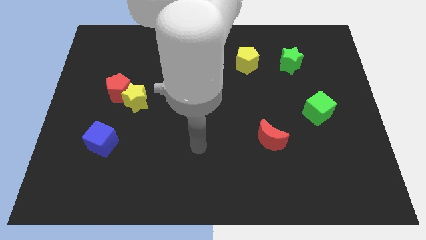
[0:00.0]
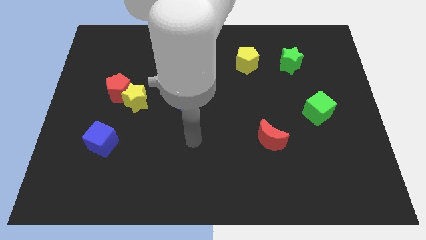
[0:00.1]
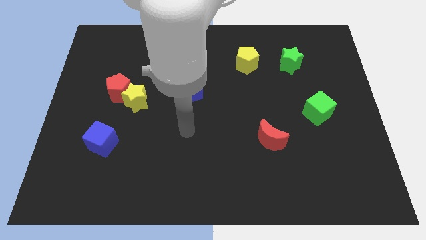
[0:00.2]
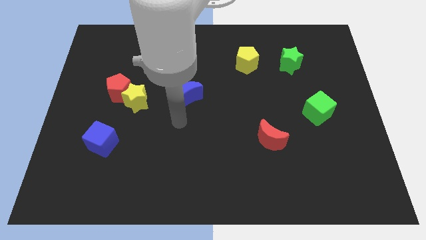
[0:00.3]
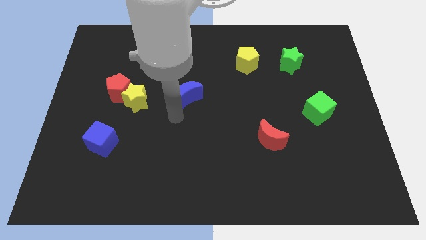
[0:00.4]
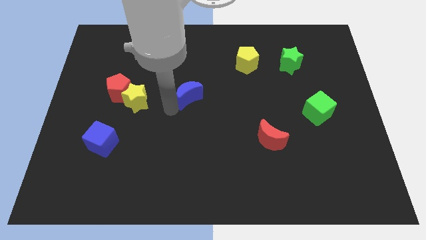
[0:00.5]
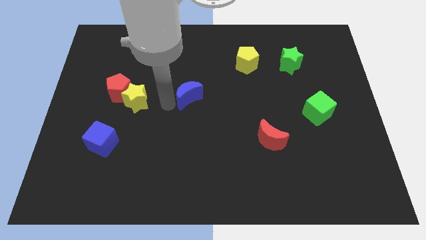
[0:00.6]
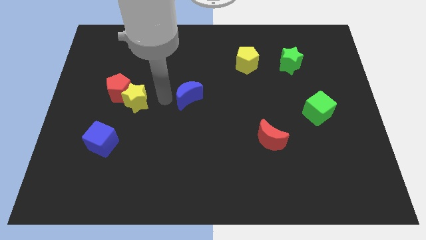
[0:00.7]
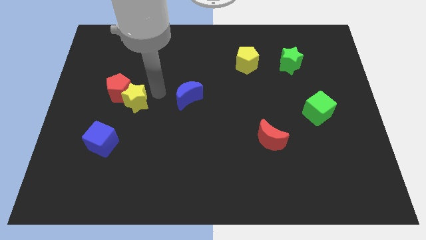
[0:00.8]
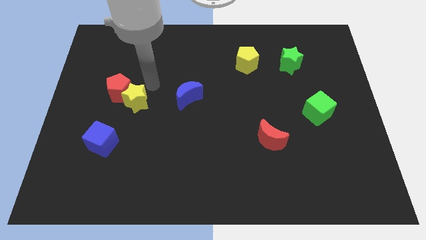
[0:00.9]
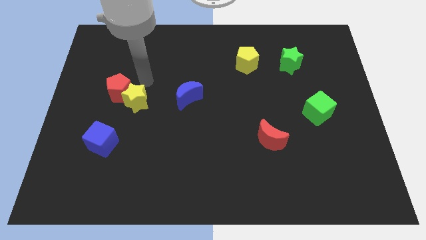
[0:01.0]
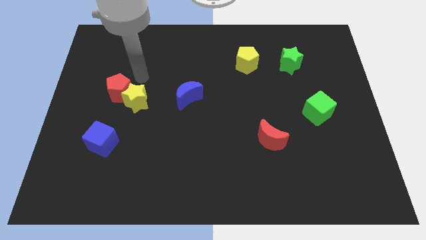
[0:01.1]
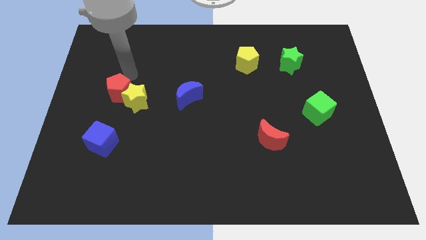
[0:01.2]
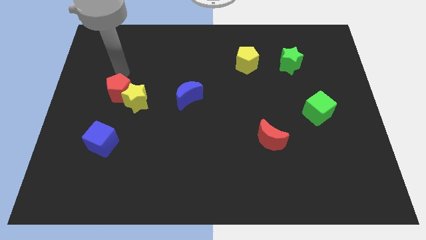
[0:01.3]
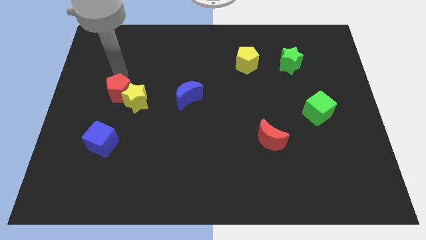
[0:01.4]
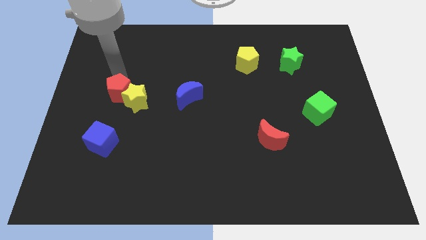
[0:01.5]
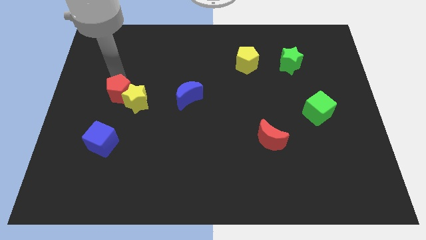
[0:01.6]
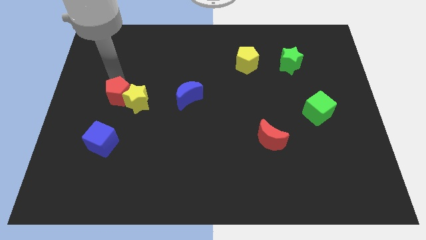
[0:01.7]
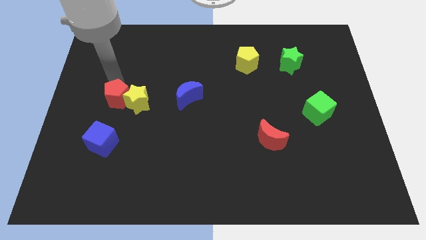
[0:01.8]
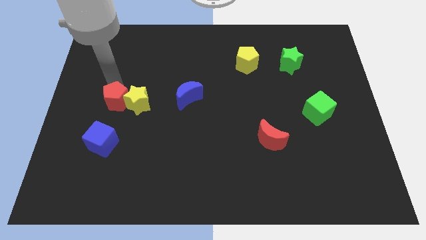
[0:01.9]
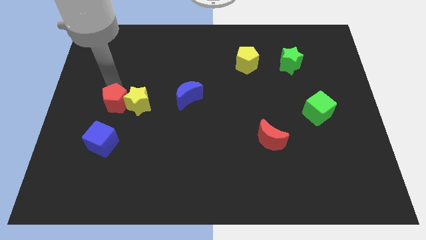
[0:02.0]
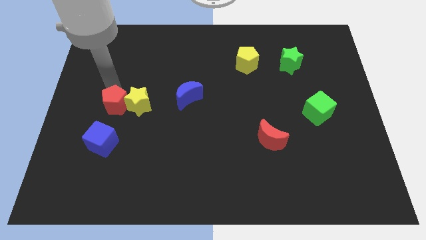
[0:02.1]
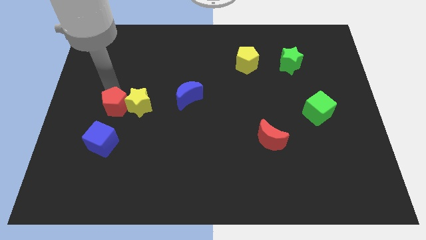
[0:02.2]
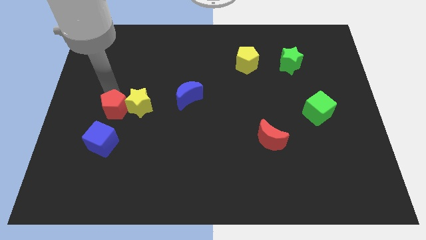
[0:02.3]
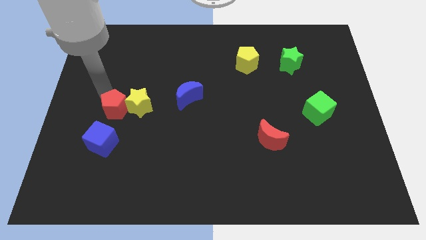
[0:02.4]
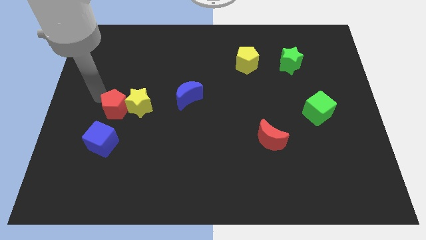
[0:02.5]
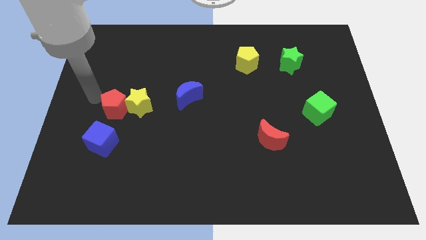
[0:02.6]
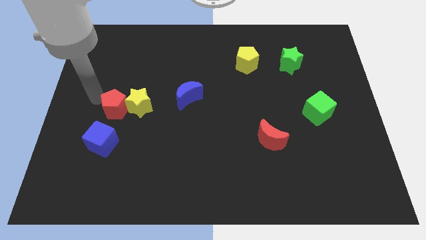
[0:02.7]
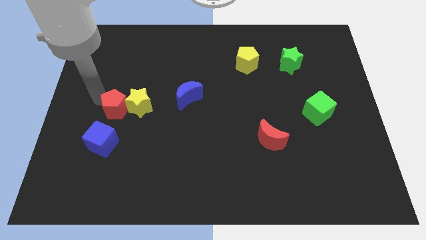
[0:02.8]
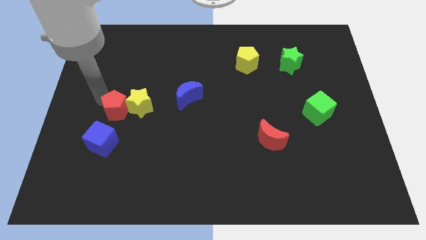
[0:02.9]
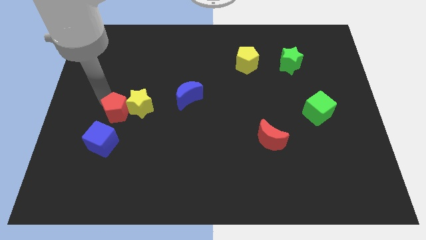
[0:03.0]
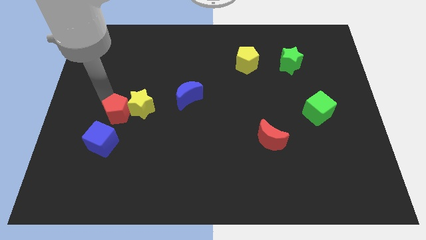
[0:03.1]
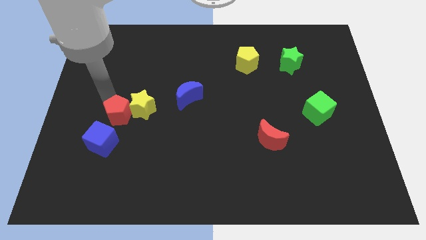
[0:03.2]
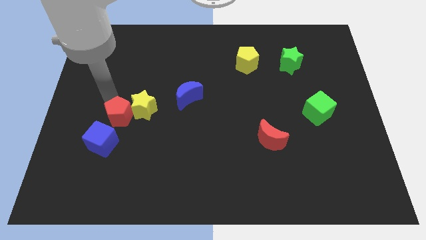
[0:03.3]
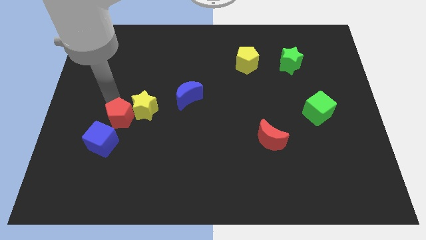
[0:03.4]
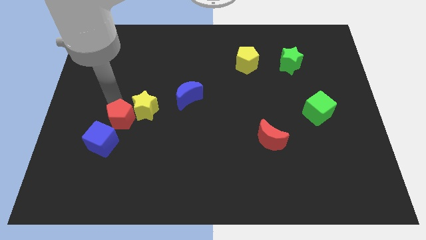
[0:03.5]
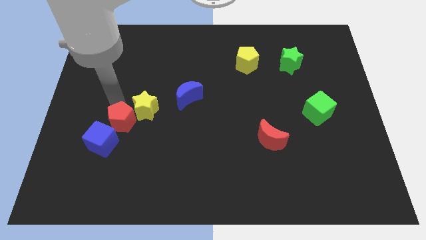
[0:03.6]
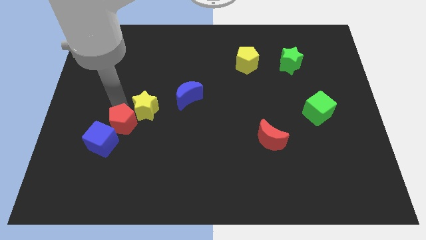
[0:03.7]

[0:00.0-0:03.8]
push the red pentagon a little bit diagonally downwards and to the right

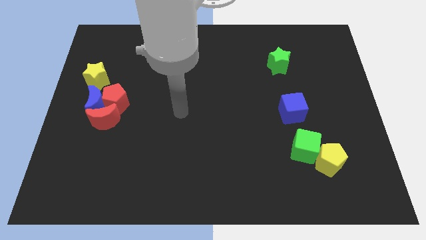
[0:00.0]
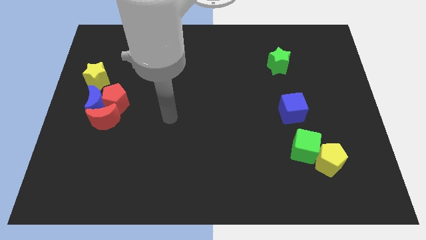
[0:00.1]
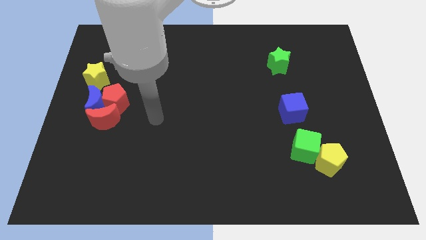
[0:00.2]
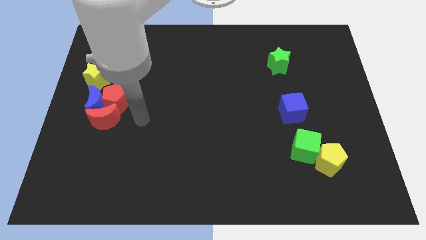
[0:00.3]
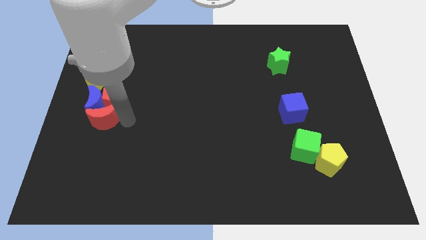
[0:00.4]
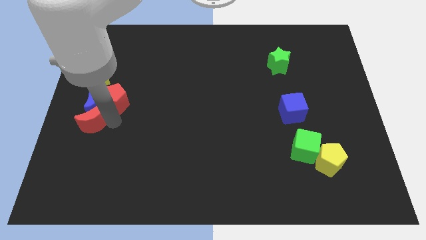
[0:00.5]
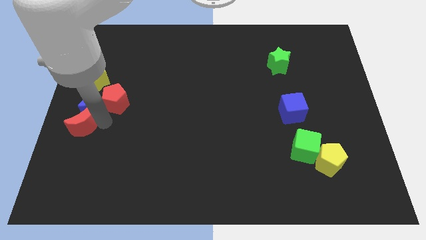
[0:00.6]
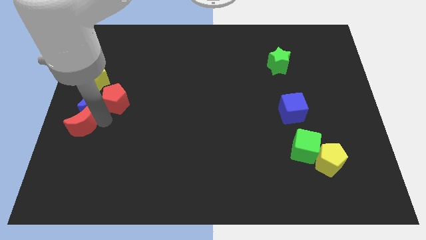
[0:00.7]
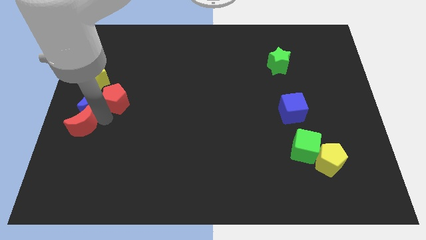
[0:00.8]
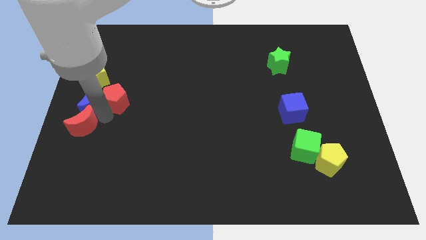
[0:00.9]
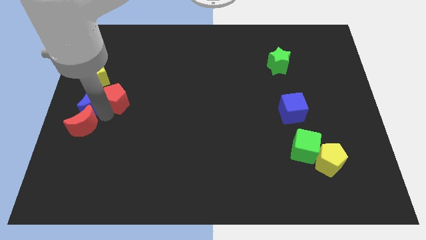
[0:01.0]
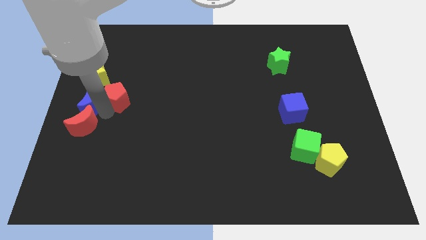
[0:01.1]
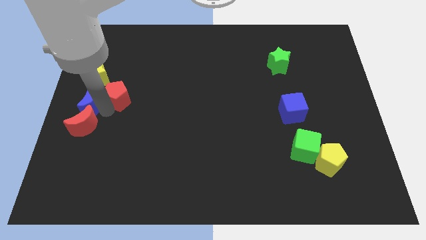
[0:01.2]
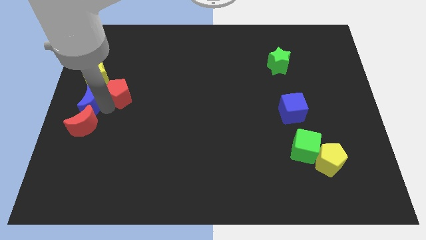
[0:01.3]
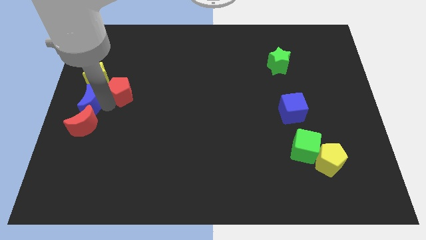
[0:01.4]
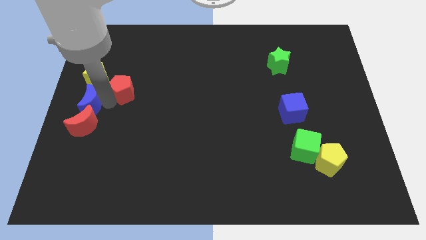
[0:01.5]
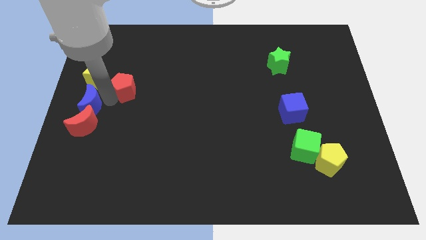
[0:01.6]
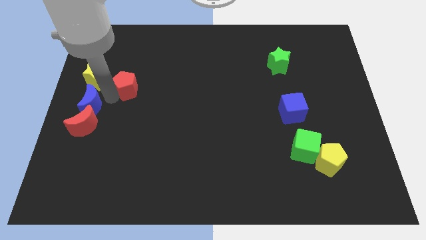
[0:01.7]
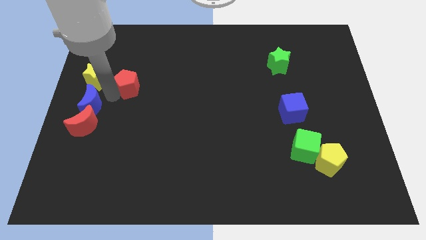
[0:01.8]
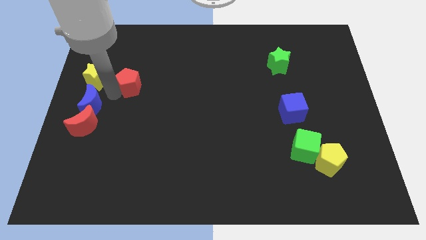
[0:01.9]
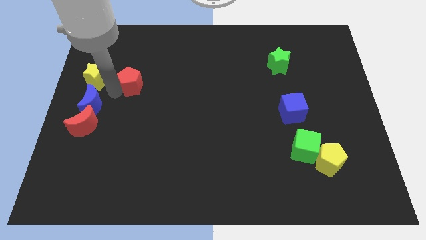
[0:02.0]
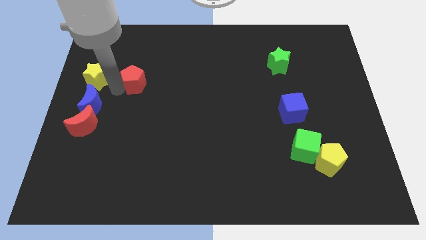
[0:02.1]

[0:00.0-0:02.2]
push the red pentagon diagonally up and right a little

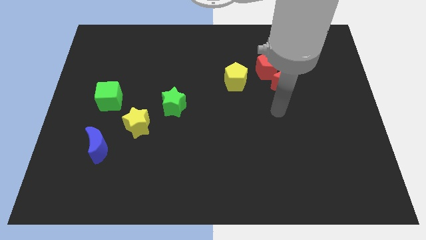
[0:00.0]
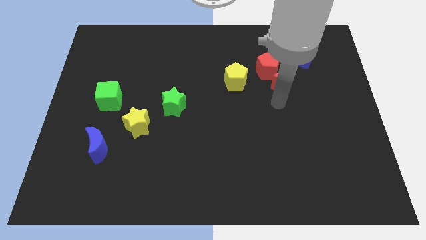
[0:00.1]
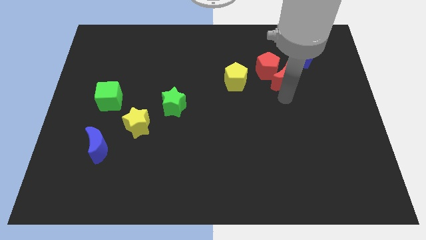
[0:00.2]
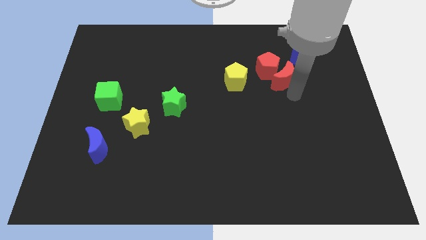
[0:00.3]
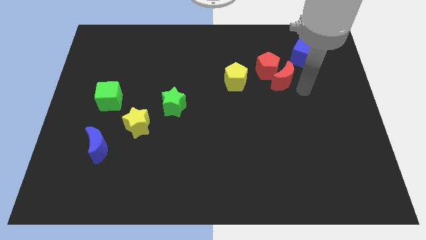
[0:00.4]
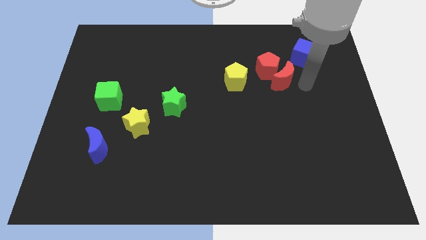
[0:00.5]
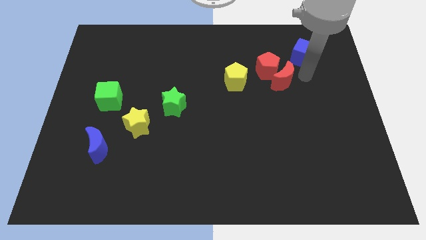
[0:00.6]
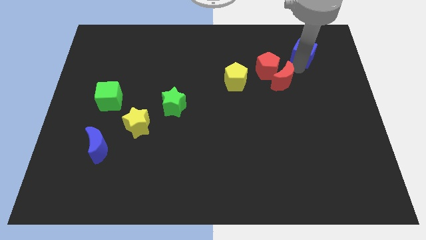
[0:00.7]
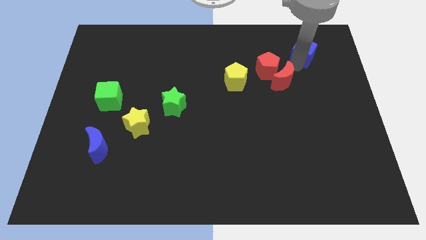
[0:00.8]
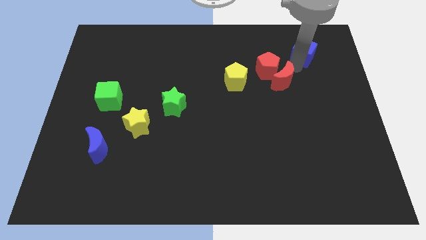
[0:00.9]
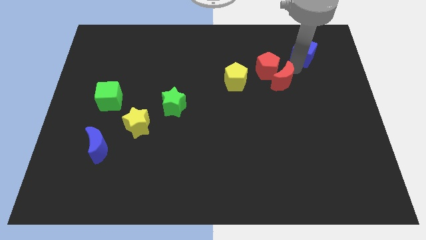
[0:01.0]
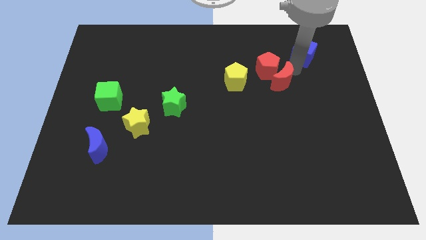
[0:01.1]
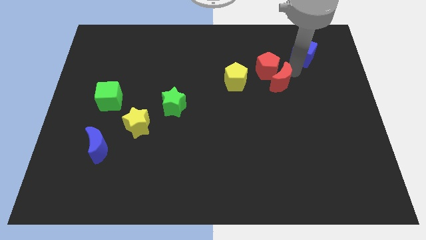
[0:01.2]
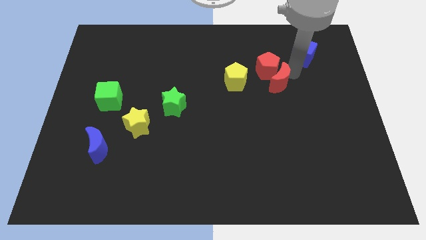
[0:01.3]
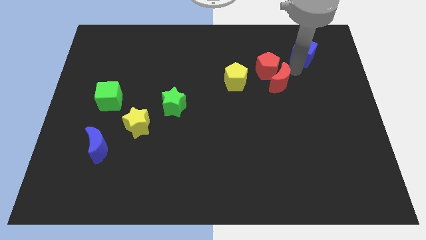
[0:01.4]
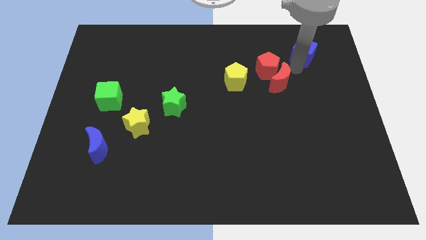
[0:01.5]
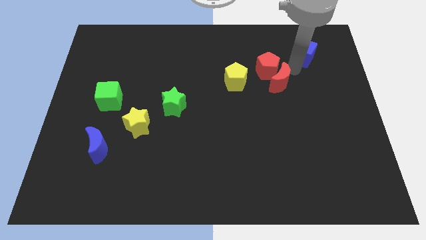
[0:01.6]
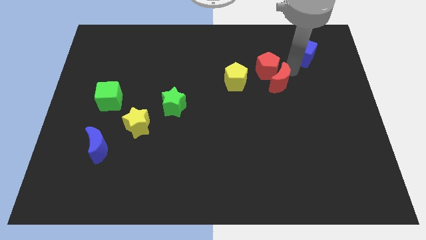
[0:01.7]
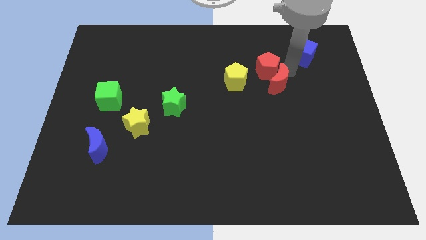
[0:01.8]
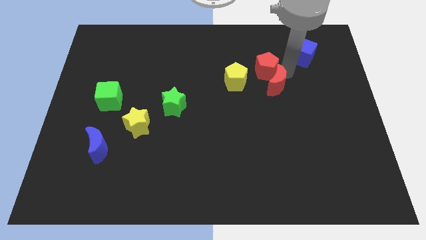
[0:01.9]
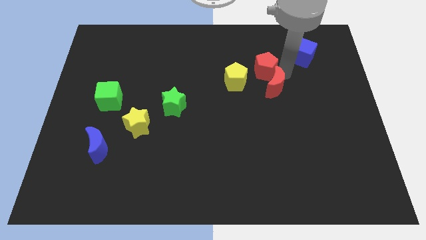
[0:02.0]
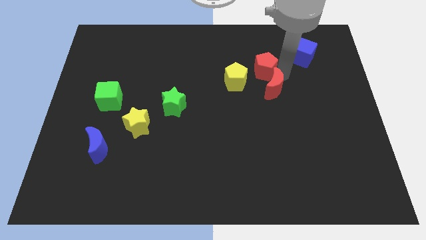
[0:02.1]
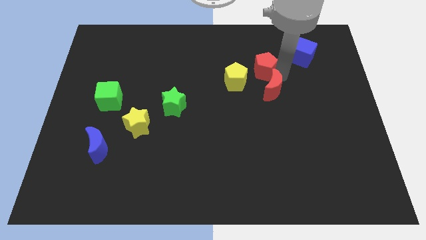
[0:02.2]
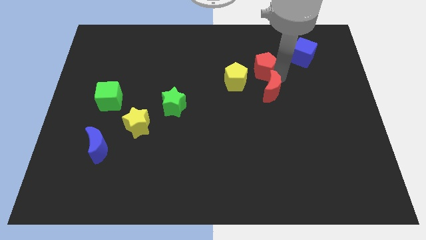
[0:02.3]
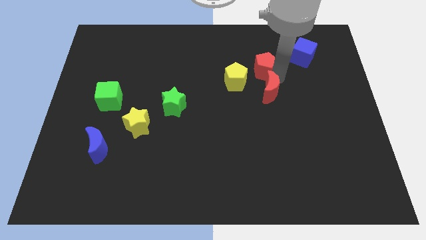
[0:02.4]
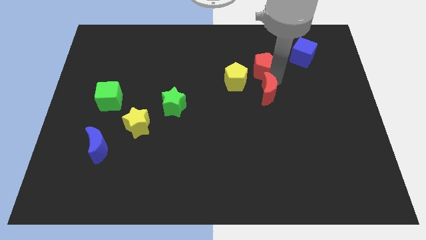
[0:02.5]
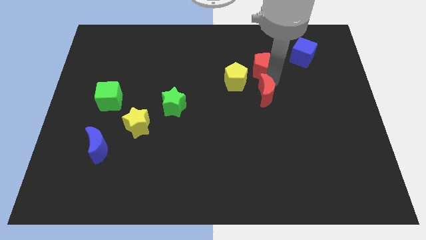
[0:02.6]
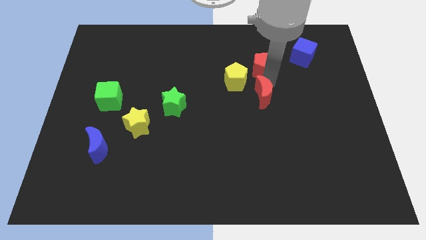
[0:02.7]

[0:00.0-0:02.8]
slightly push the red moon diagonally downwards and left
